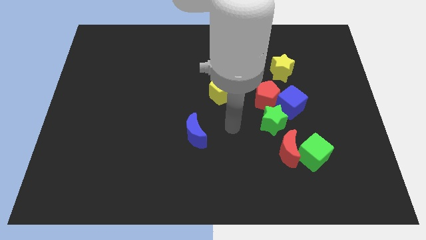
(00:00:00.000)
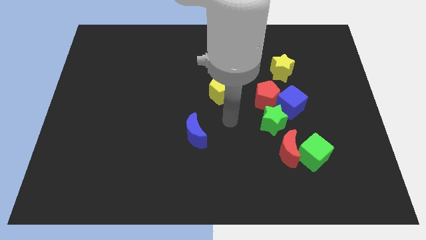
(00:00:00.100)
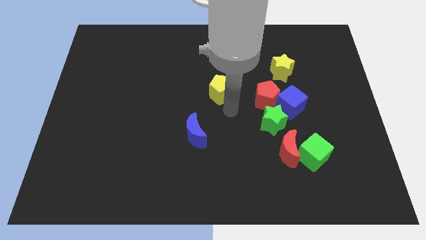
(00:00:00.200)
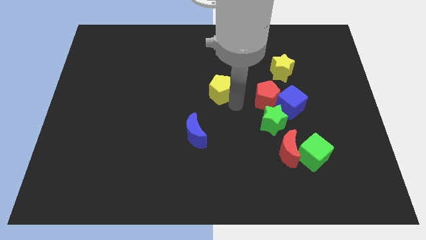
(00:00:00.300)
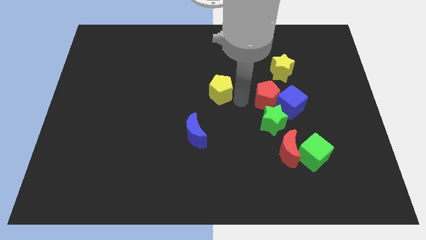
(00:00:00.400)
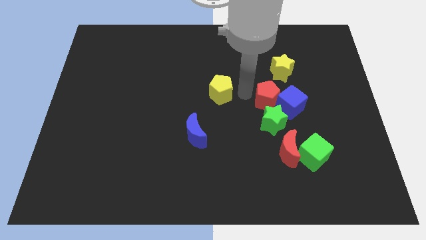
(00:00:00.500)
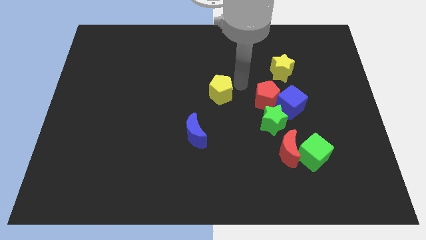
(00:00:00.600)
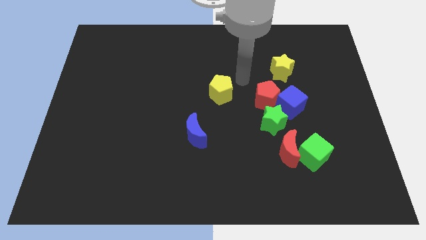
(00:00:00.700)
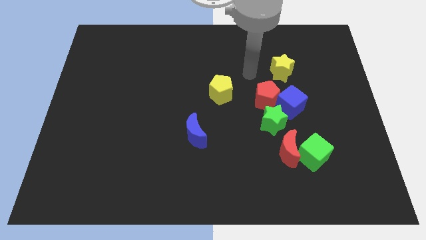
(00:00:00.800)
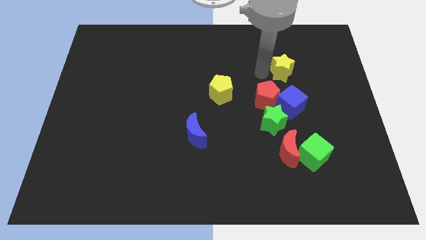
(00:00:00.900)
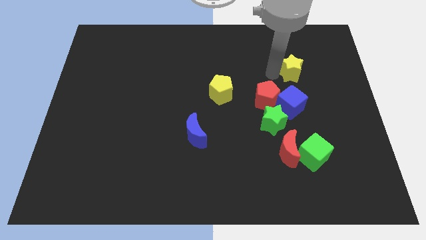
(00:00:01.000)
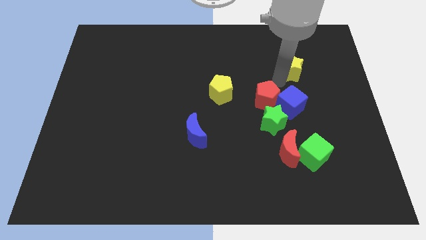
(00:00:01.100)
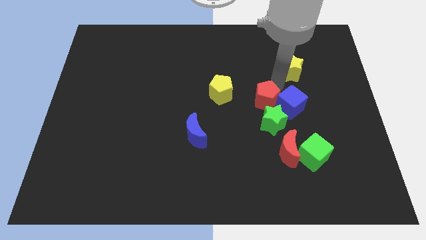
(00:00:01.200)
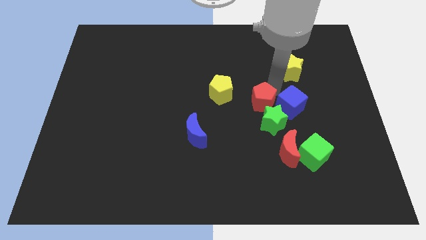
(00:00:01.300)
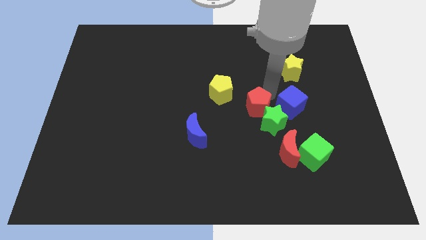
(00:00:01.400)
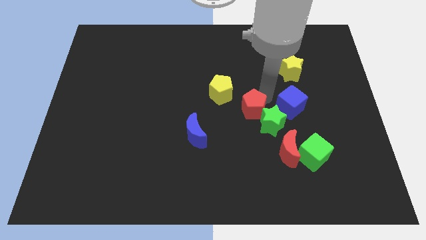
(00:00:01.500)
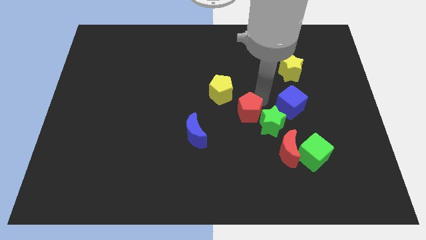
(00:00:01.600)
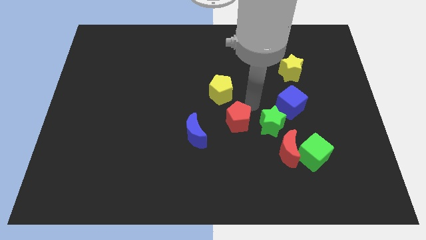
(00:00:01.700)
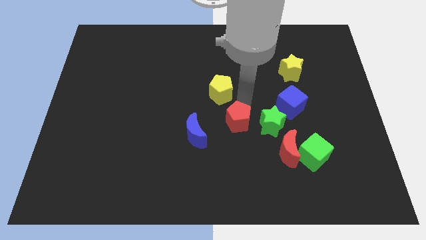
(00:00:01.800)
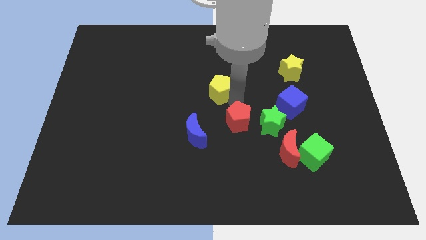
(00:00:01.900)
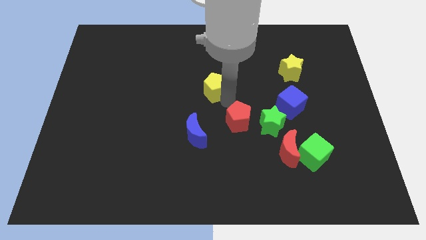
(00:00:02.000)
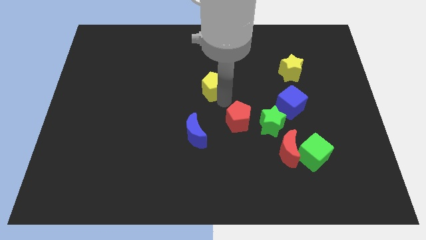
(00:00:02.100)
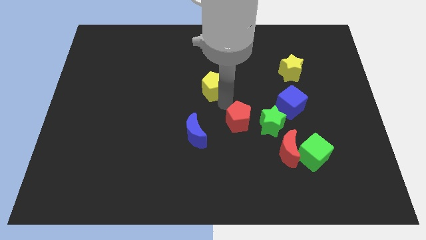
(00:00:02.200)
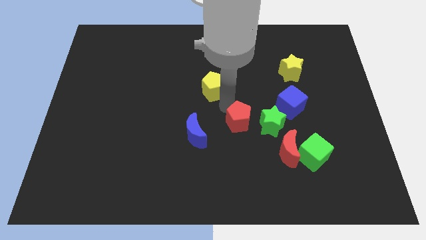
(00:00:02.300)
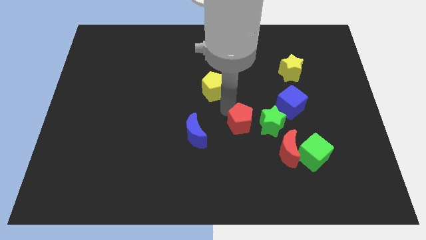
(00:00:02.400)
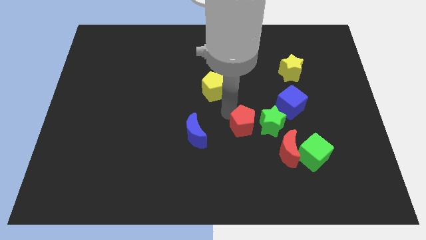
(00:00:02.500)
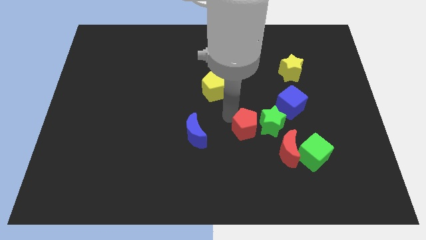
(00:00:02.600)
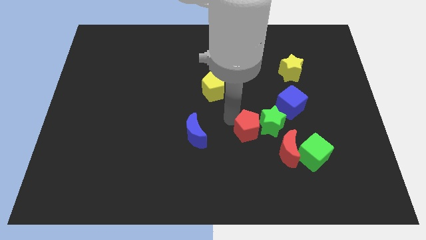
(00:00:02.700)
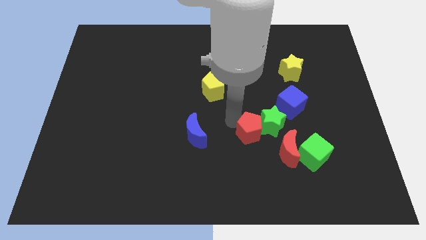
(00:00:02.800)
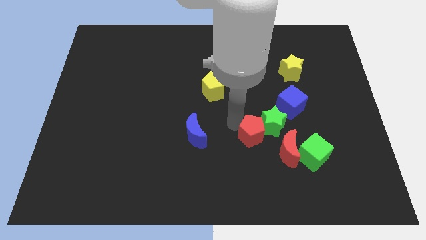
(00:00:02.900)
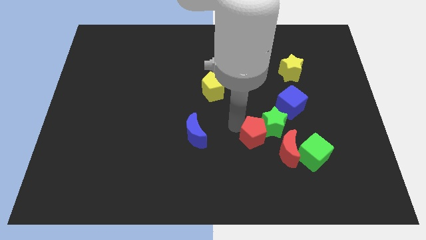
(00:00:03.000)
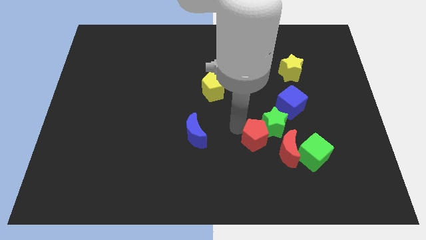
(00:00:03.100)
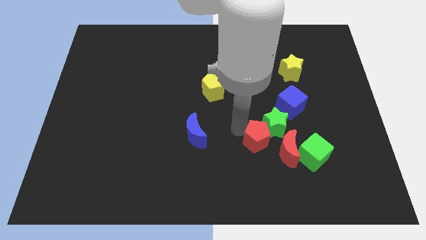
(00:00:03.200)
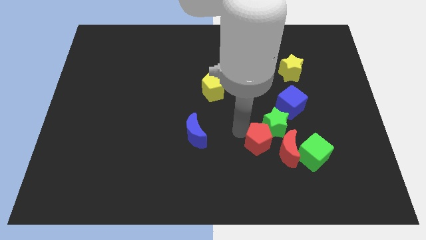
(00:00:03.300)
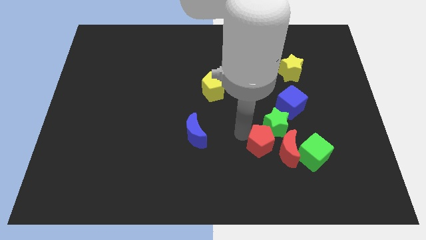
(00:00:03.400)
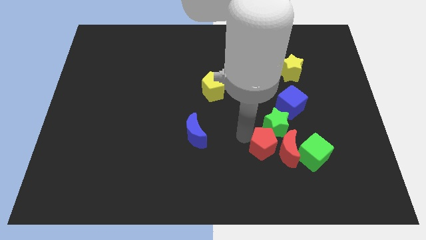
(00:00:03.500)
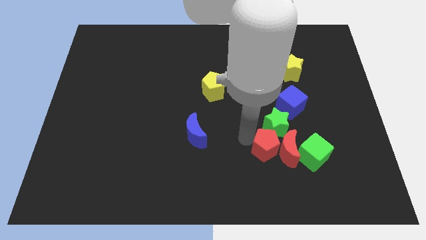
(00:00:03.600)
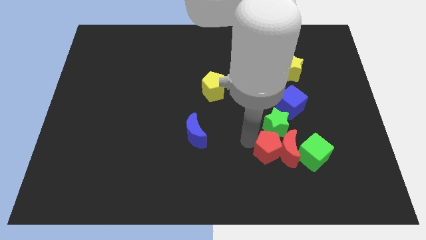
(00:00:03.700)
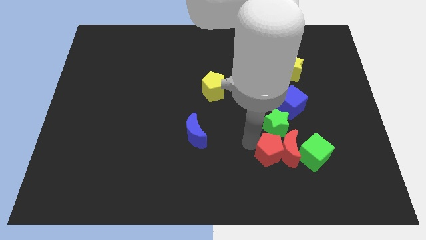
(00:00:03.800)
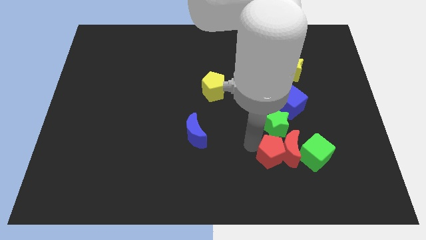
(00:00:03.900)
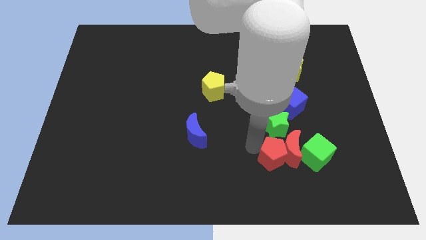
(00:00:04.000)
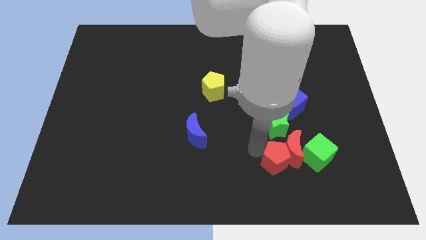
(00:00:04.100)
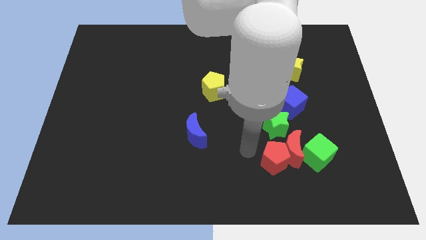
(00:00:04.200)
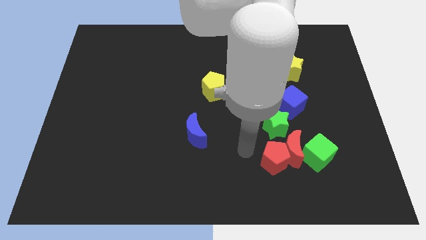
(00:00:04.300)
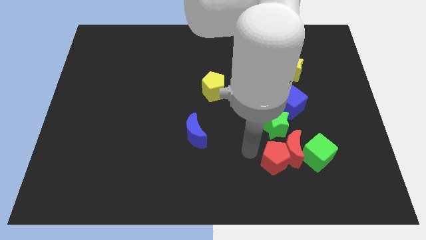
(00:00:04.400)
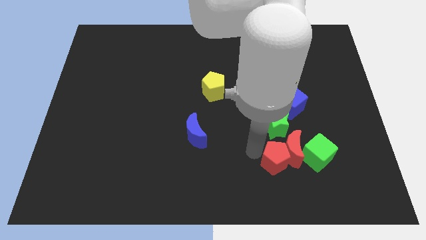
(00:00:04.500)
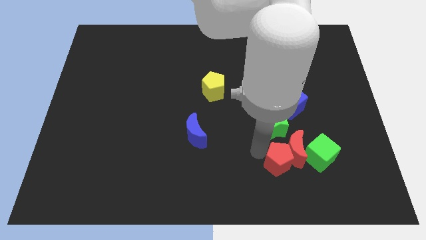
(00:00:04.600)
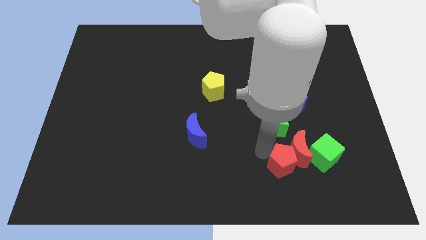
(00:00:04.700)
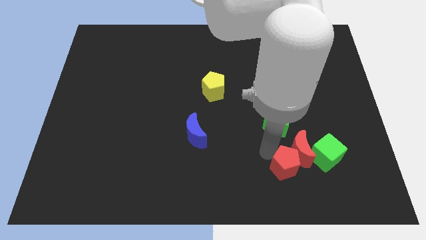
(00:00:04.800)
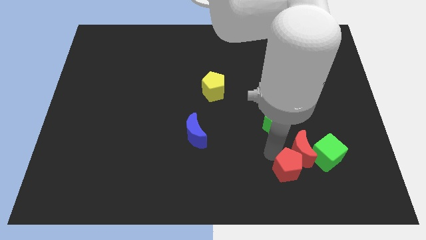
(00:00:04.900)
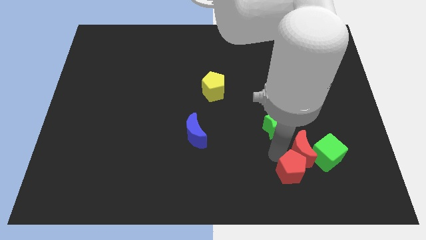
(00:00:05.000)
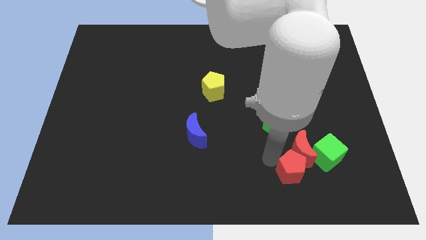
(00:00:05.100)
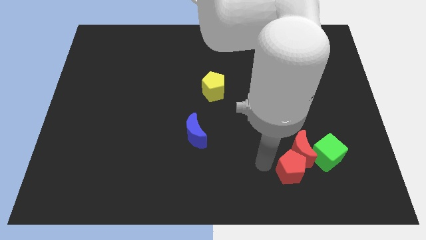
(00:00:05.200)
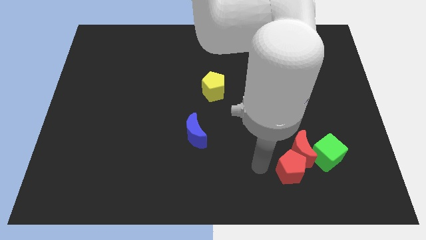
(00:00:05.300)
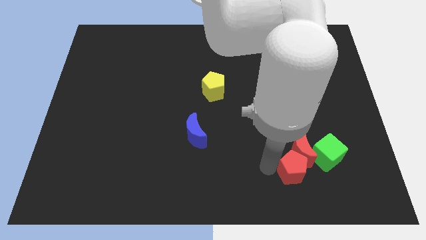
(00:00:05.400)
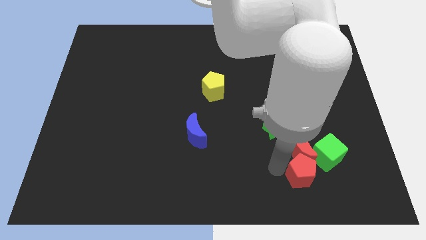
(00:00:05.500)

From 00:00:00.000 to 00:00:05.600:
slide the red pentagon to the bottom right of the red moon

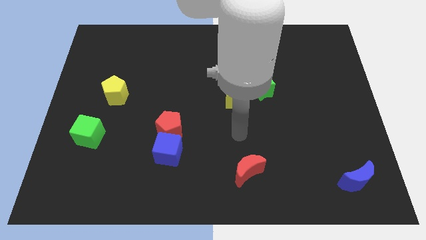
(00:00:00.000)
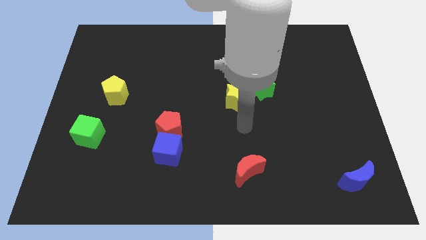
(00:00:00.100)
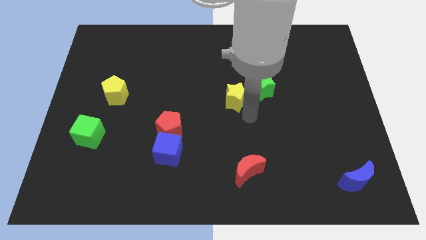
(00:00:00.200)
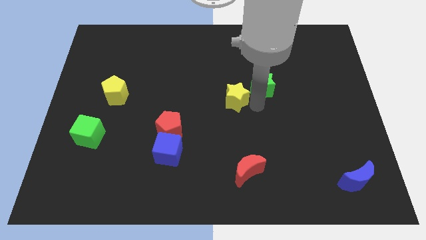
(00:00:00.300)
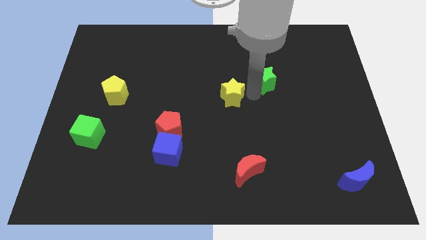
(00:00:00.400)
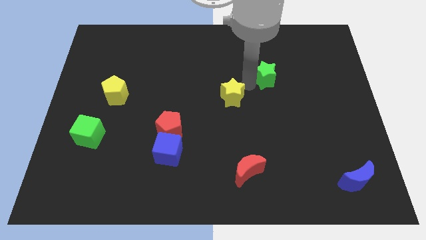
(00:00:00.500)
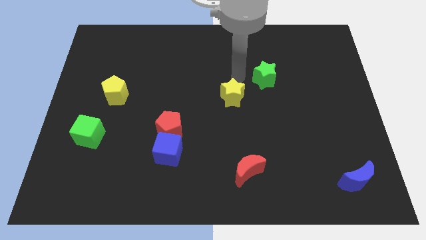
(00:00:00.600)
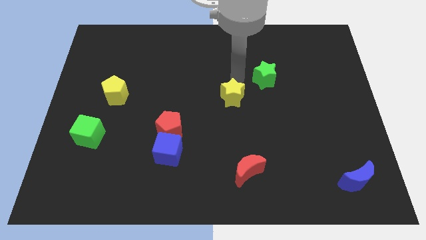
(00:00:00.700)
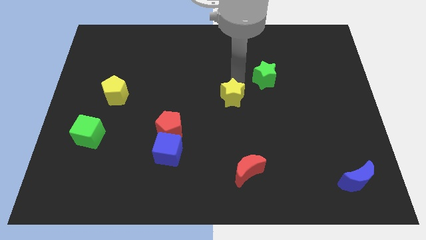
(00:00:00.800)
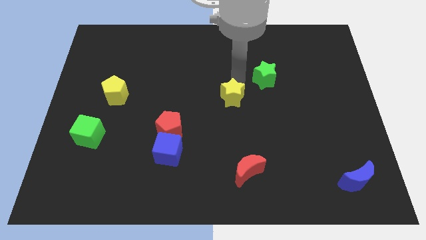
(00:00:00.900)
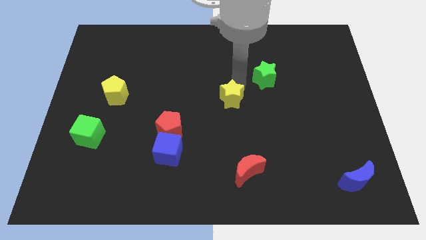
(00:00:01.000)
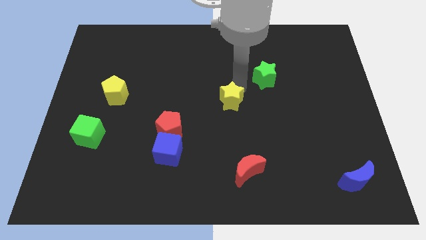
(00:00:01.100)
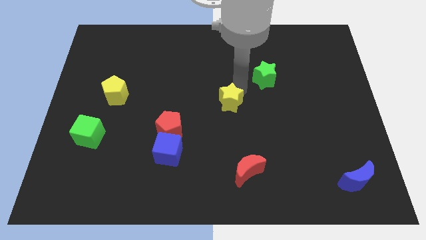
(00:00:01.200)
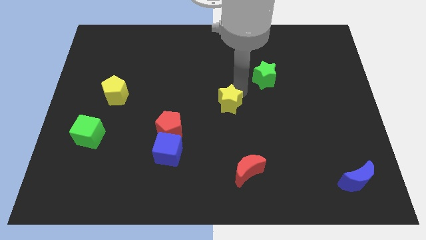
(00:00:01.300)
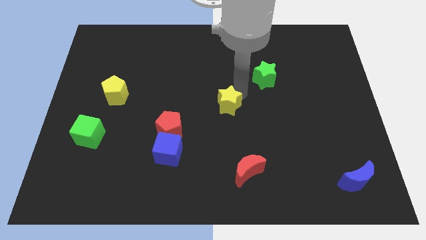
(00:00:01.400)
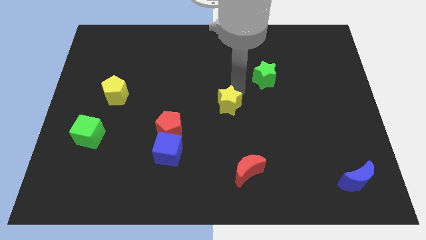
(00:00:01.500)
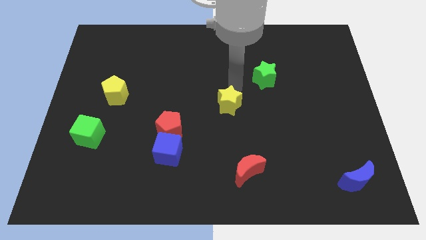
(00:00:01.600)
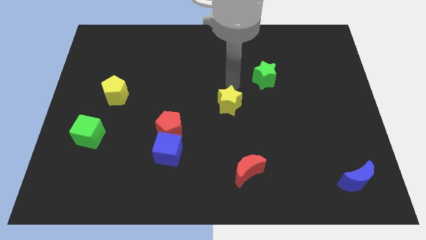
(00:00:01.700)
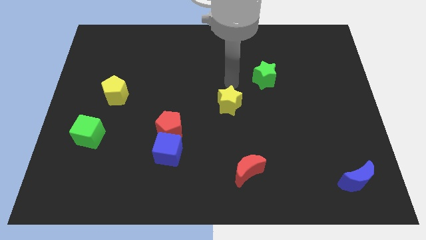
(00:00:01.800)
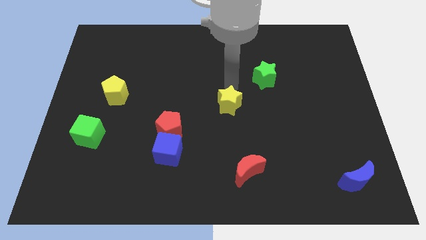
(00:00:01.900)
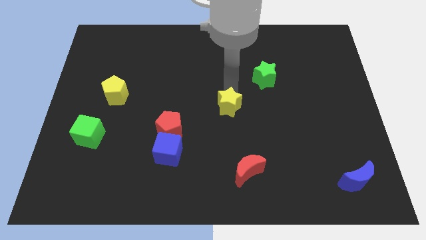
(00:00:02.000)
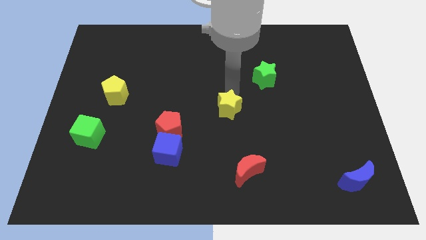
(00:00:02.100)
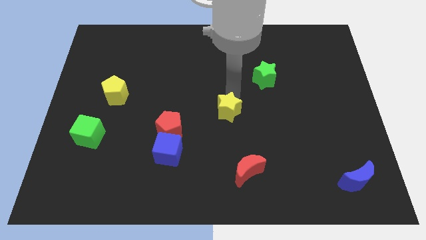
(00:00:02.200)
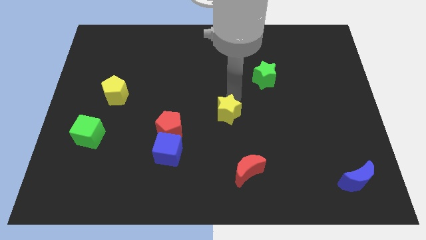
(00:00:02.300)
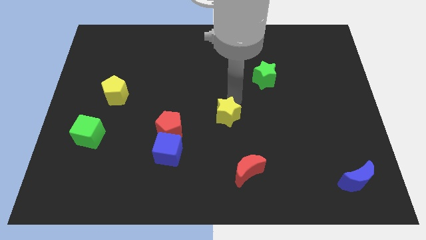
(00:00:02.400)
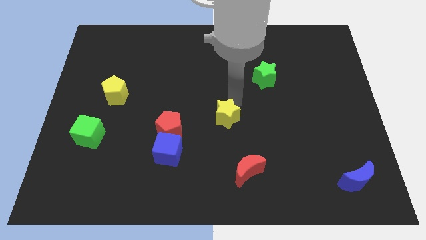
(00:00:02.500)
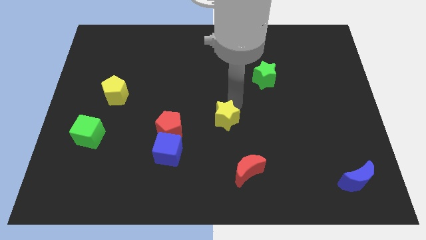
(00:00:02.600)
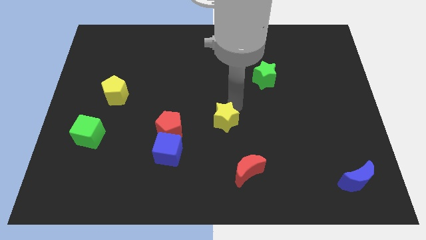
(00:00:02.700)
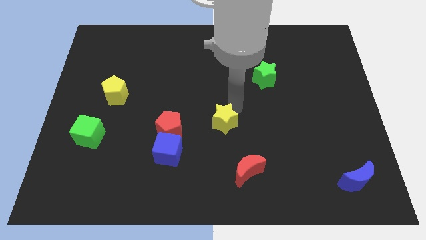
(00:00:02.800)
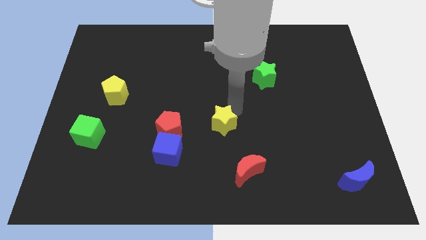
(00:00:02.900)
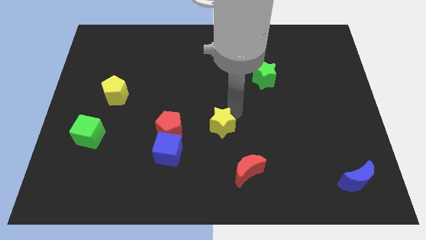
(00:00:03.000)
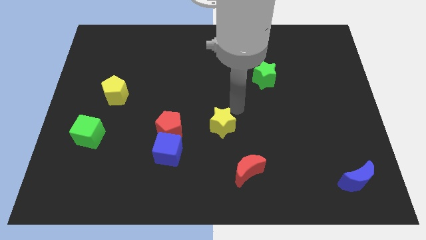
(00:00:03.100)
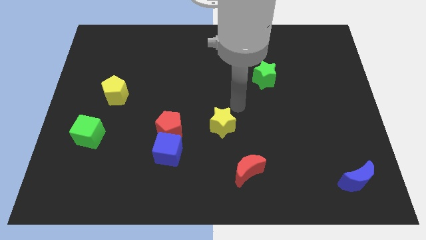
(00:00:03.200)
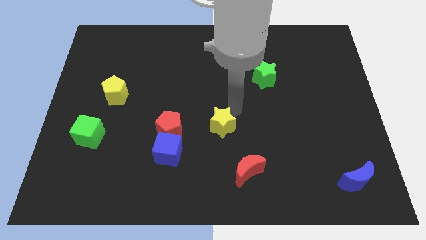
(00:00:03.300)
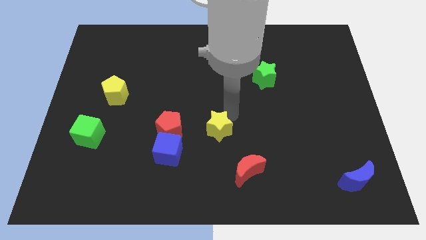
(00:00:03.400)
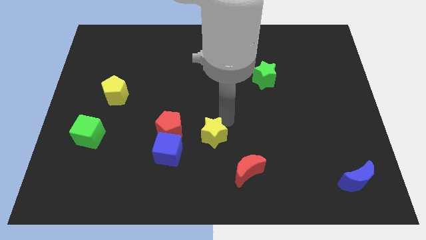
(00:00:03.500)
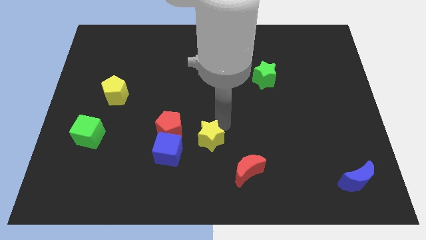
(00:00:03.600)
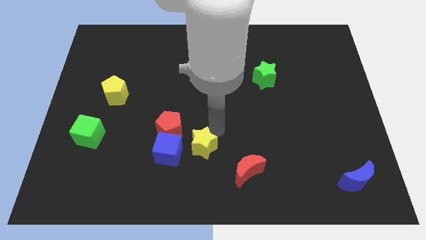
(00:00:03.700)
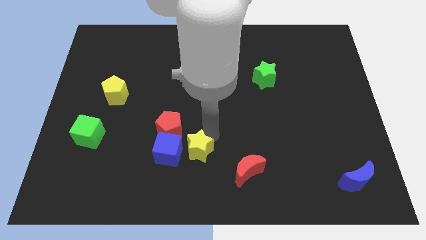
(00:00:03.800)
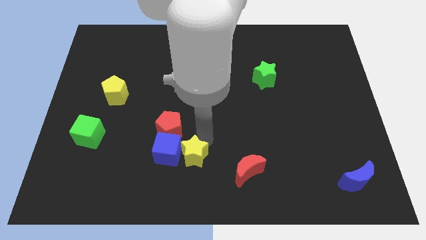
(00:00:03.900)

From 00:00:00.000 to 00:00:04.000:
move the yellow star just left of the red moon
